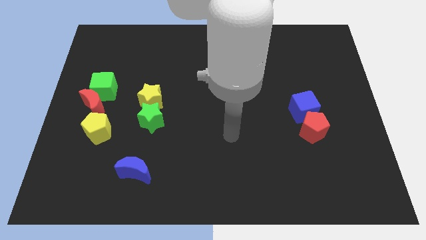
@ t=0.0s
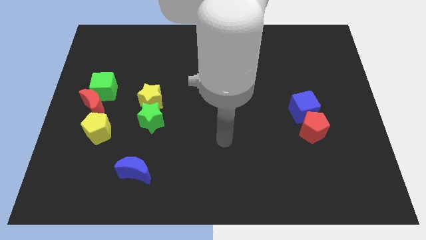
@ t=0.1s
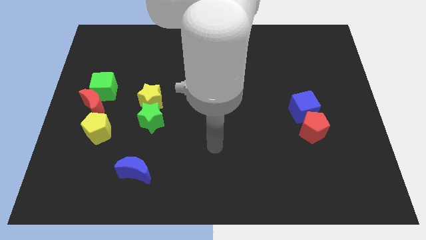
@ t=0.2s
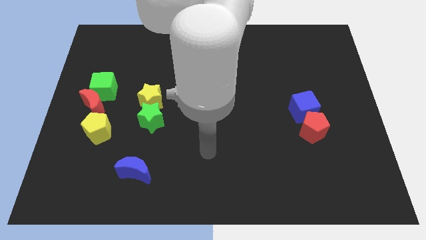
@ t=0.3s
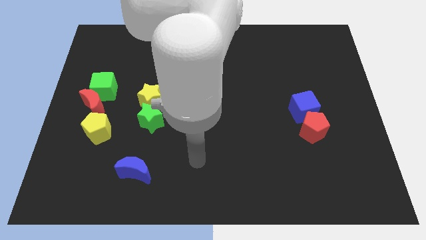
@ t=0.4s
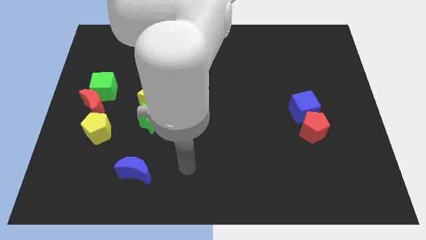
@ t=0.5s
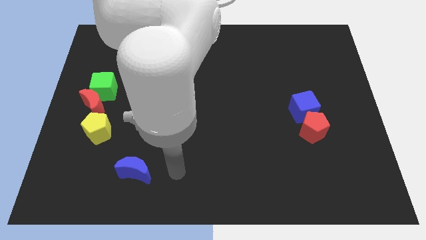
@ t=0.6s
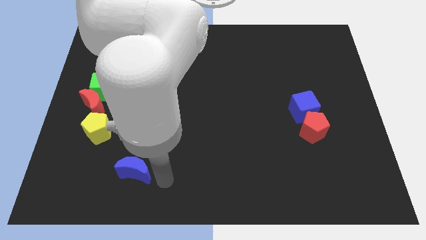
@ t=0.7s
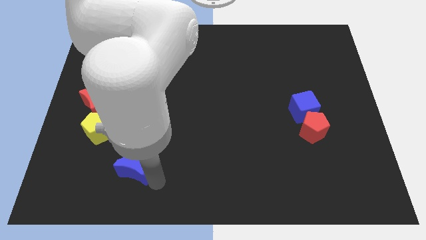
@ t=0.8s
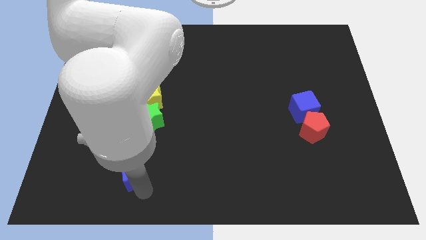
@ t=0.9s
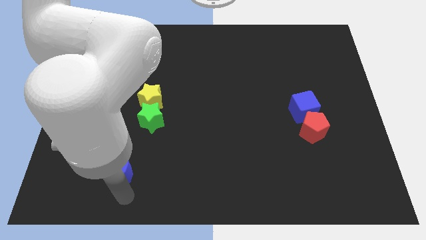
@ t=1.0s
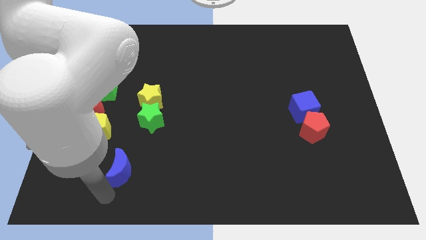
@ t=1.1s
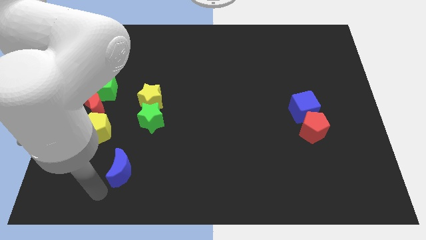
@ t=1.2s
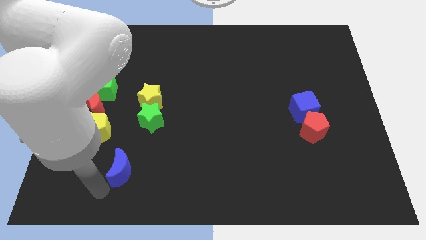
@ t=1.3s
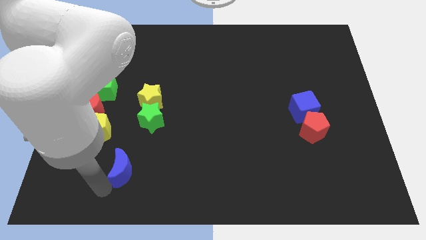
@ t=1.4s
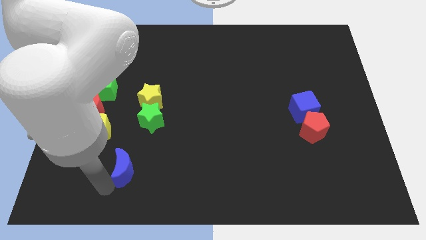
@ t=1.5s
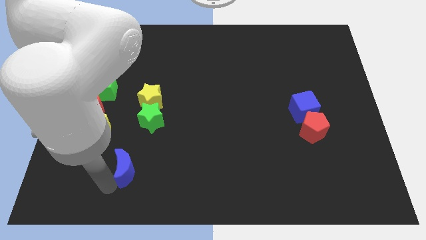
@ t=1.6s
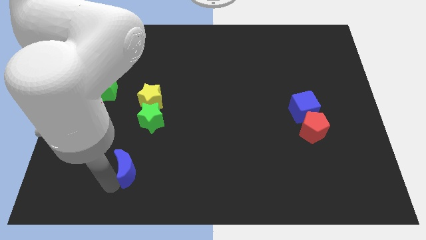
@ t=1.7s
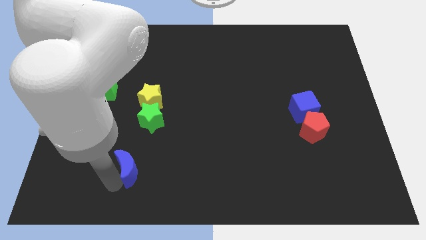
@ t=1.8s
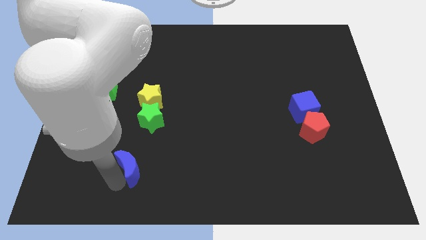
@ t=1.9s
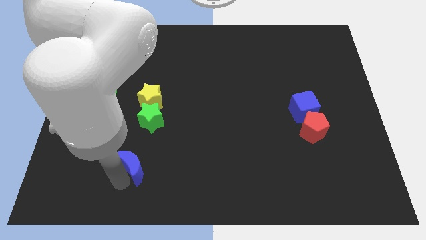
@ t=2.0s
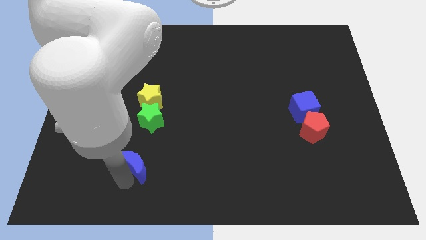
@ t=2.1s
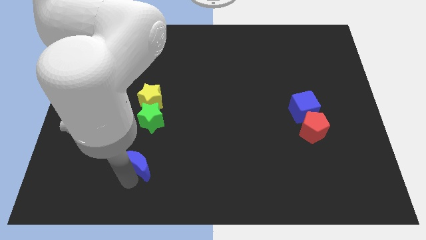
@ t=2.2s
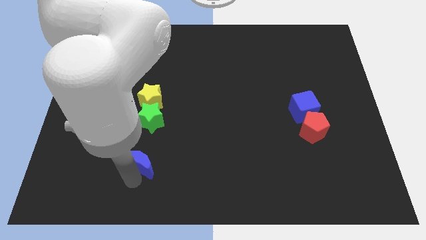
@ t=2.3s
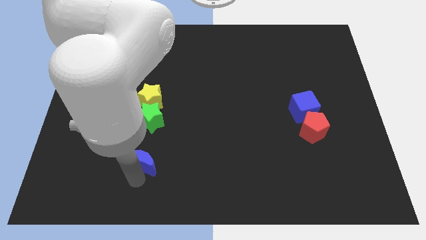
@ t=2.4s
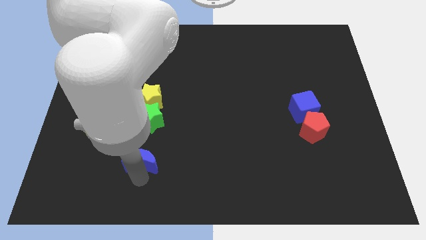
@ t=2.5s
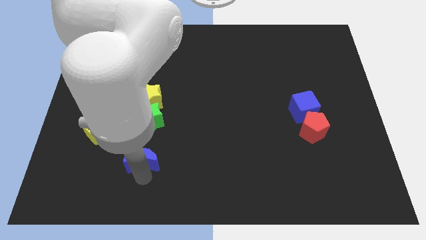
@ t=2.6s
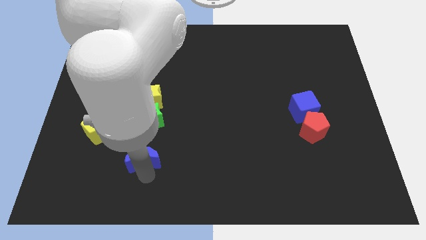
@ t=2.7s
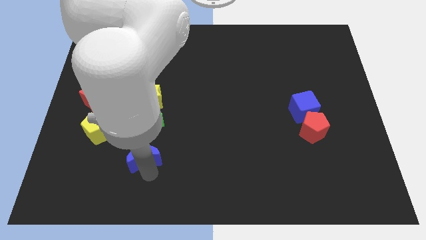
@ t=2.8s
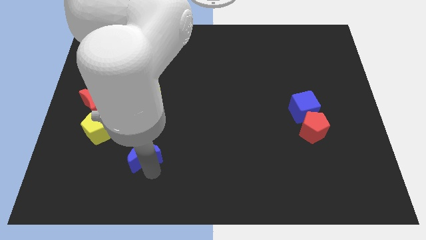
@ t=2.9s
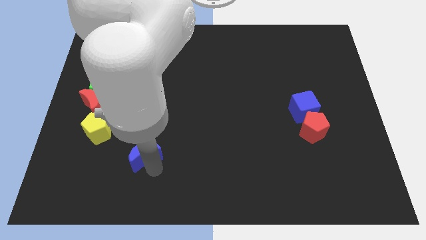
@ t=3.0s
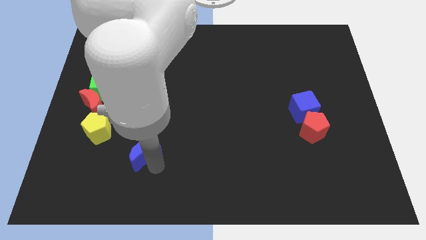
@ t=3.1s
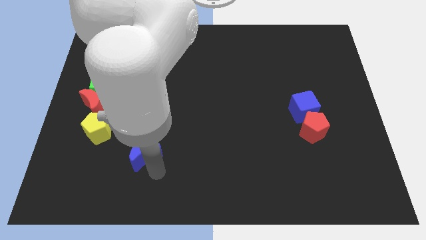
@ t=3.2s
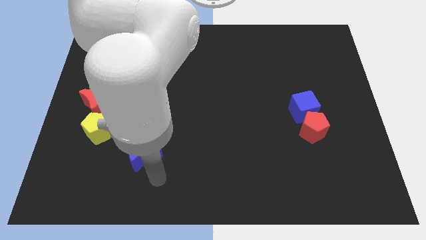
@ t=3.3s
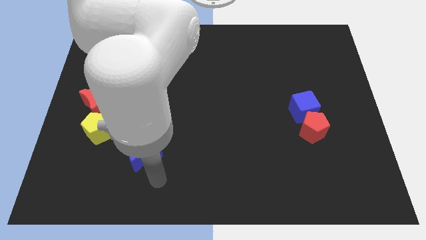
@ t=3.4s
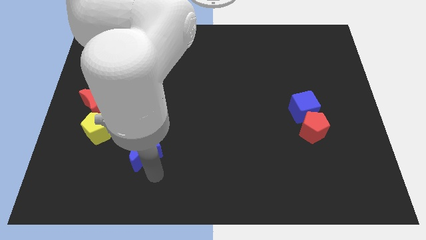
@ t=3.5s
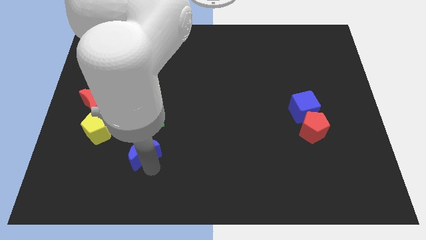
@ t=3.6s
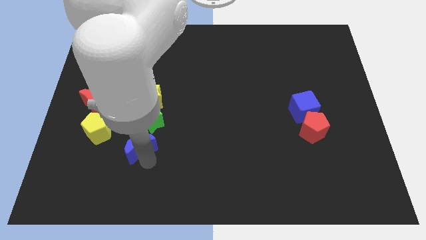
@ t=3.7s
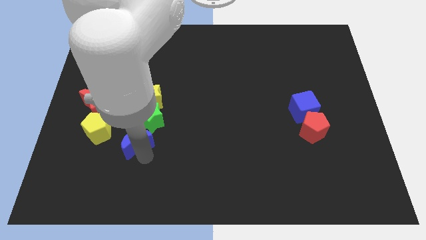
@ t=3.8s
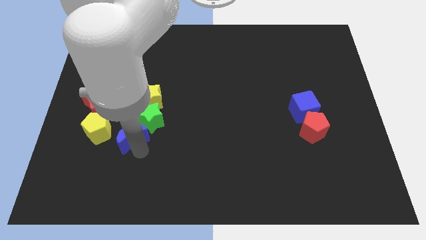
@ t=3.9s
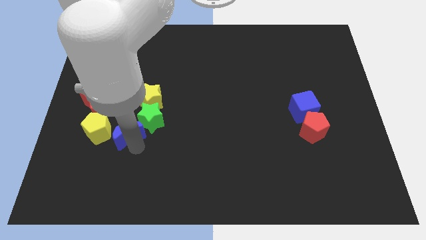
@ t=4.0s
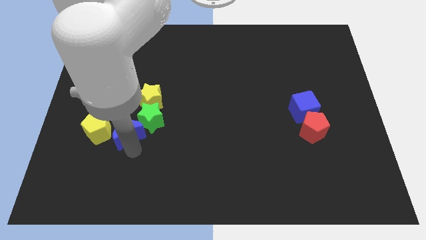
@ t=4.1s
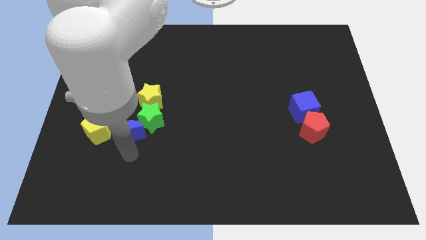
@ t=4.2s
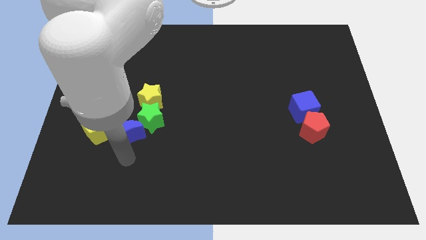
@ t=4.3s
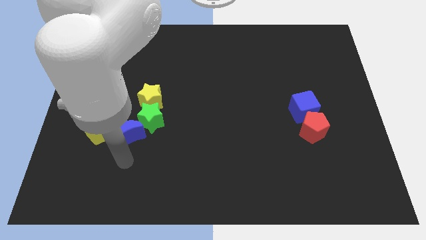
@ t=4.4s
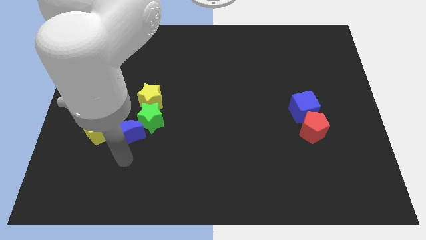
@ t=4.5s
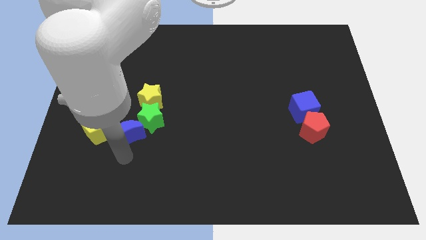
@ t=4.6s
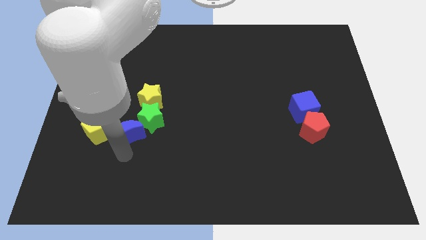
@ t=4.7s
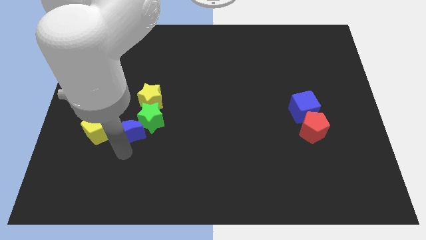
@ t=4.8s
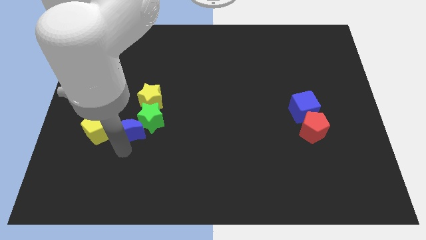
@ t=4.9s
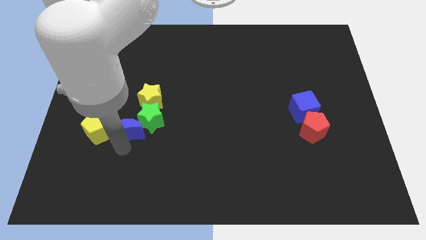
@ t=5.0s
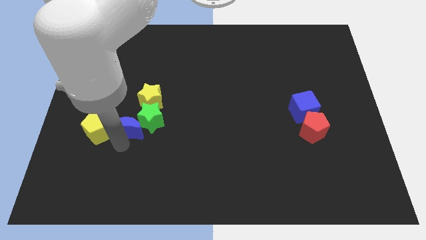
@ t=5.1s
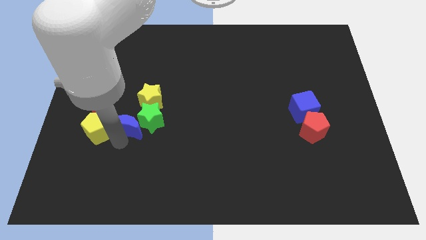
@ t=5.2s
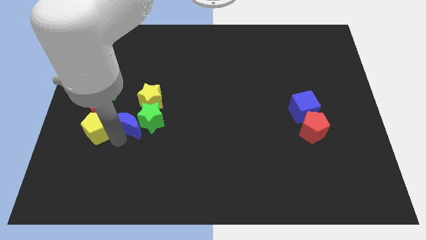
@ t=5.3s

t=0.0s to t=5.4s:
push the blue moon diagonally up and to the left of the green star

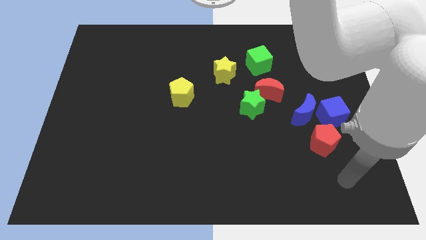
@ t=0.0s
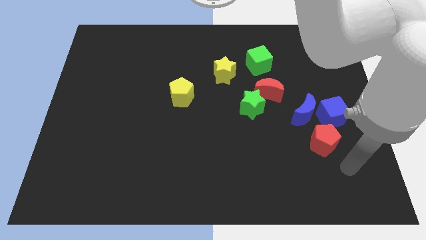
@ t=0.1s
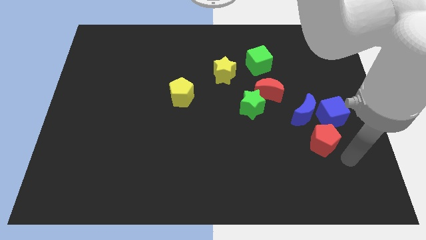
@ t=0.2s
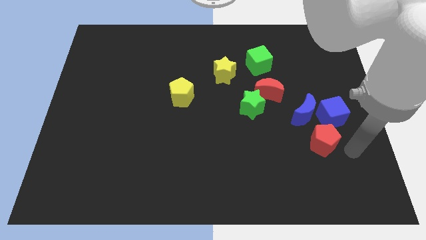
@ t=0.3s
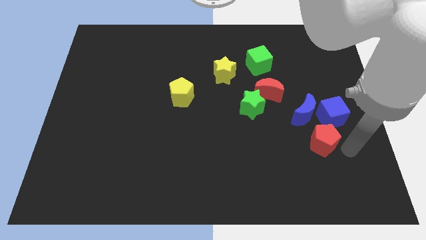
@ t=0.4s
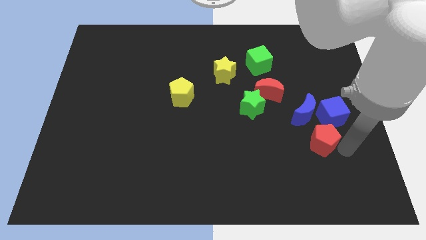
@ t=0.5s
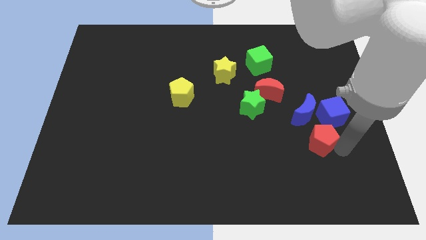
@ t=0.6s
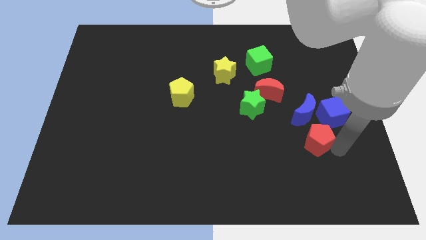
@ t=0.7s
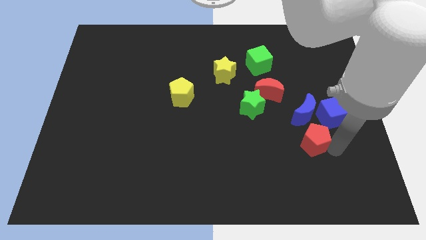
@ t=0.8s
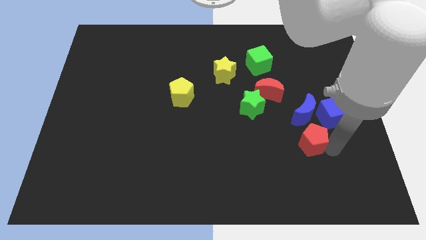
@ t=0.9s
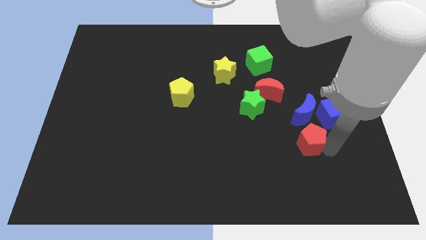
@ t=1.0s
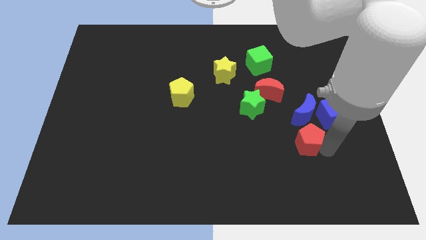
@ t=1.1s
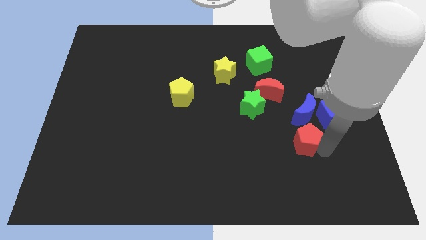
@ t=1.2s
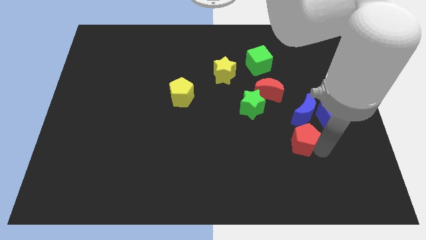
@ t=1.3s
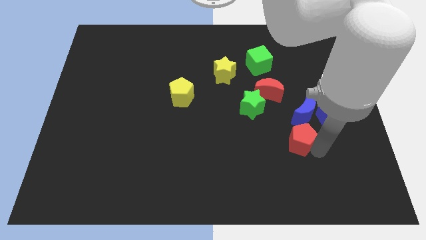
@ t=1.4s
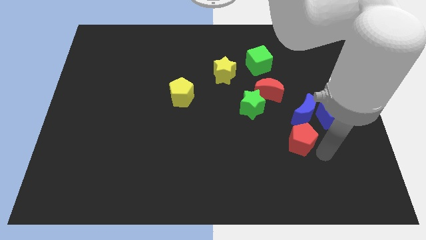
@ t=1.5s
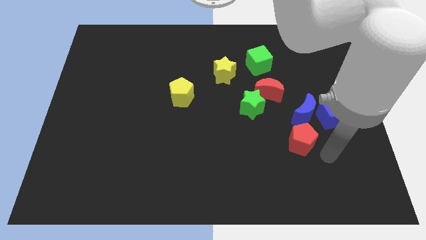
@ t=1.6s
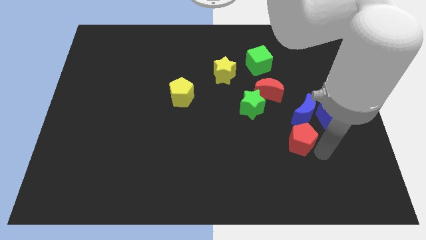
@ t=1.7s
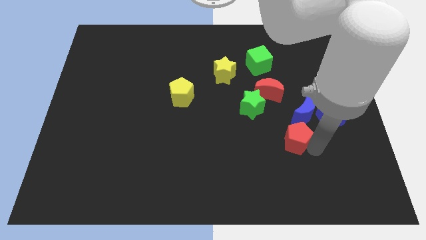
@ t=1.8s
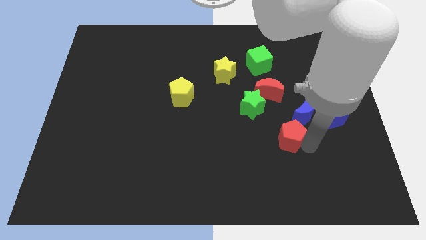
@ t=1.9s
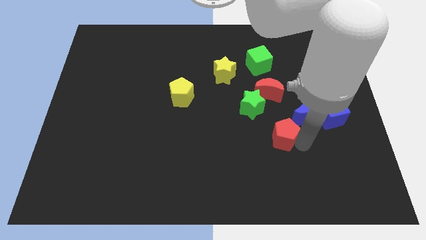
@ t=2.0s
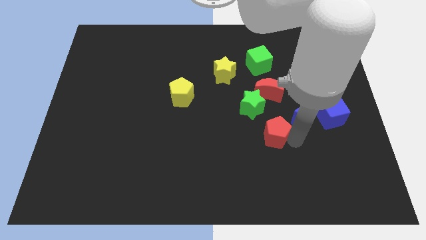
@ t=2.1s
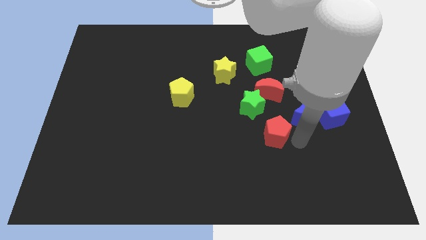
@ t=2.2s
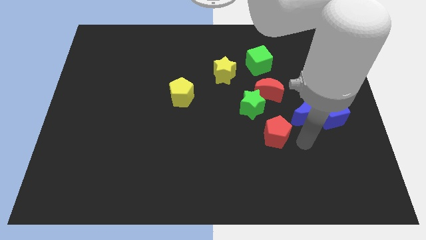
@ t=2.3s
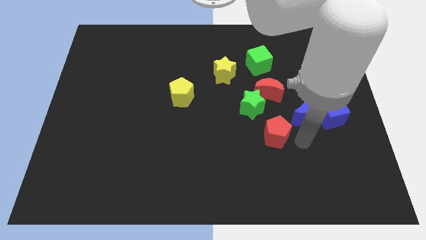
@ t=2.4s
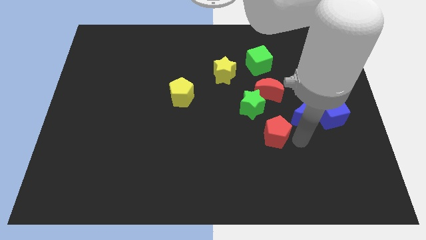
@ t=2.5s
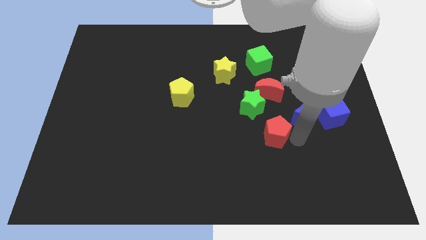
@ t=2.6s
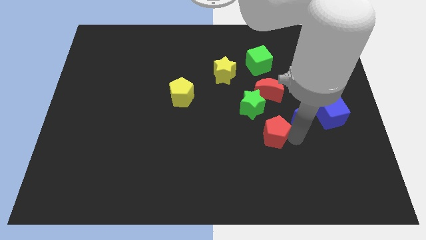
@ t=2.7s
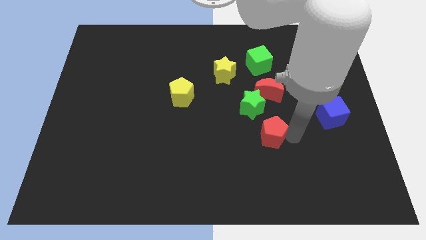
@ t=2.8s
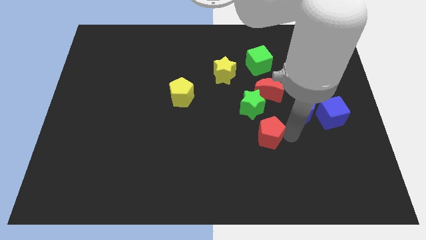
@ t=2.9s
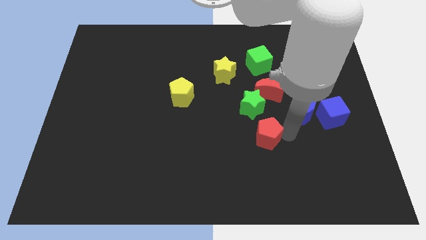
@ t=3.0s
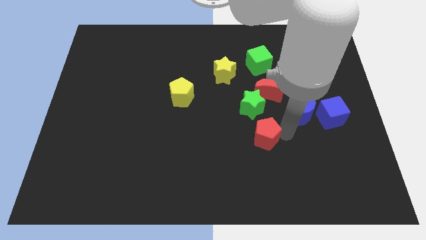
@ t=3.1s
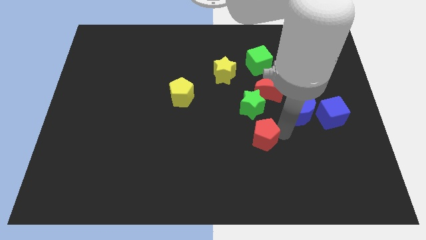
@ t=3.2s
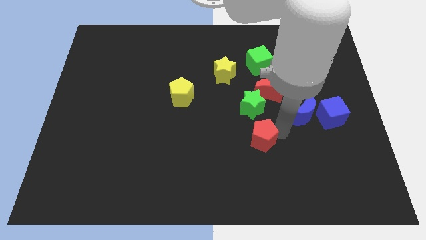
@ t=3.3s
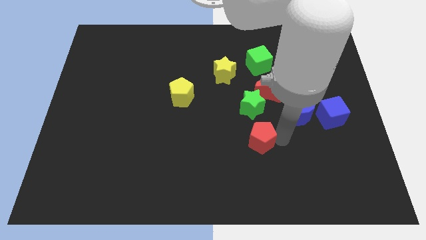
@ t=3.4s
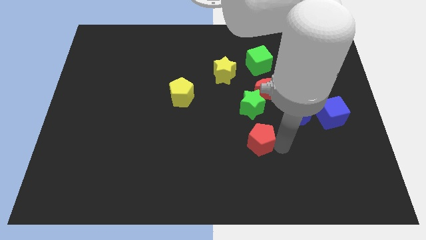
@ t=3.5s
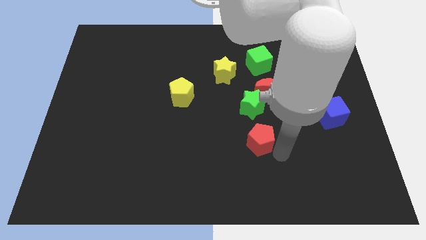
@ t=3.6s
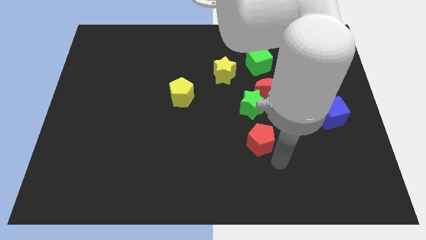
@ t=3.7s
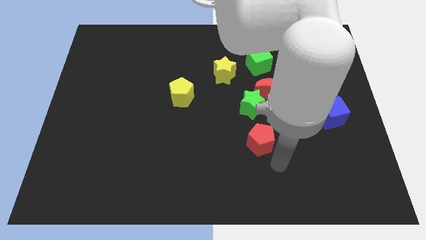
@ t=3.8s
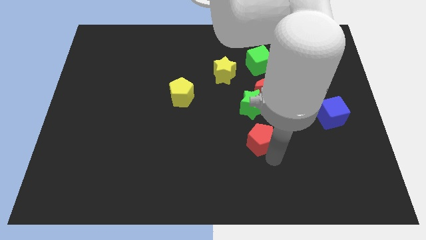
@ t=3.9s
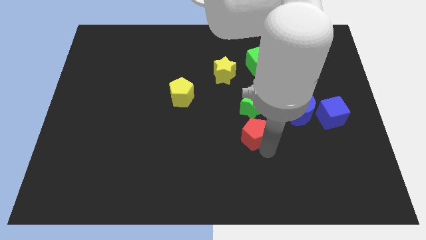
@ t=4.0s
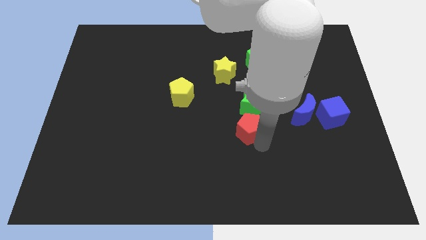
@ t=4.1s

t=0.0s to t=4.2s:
slide the red pentagon to the left side of the blue moon
